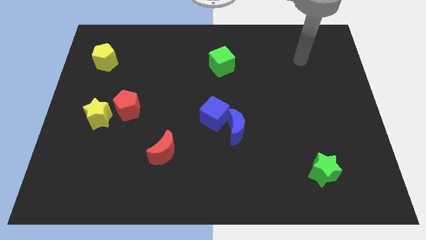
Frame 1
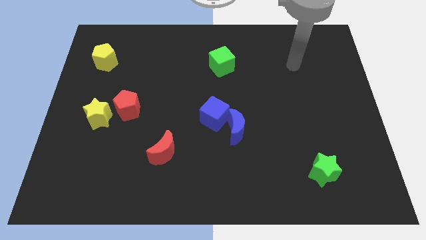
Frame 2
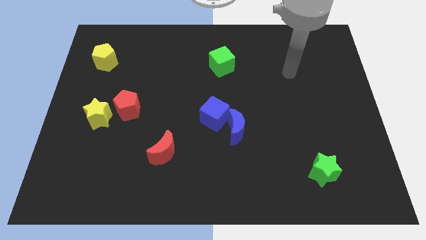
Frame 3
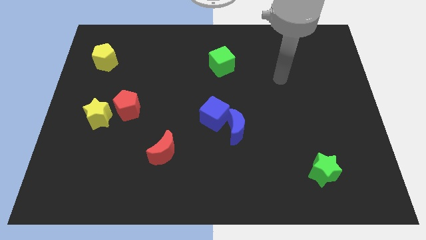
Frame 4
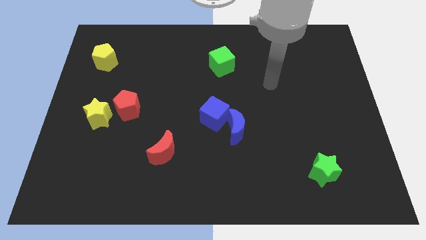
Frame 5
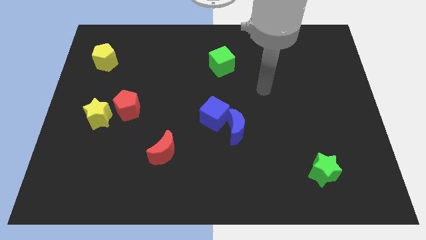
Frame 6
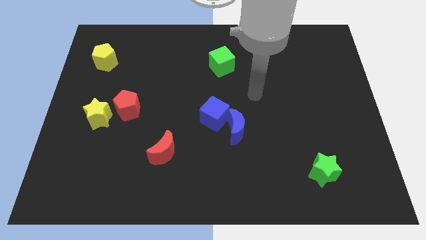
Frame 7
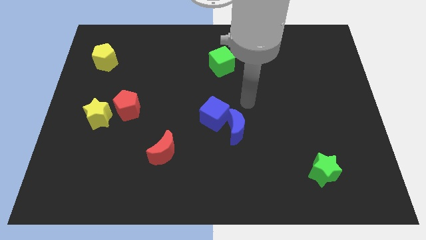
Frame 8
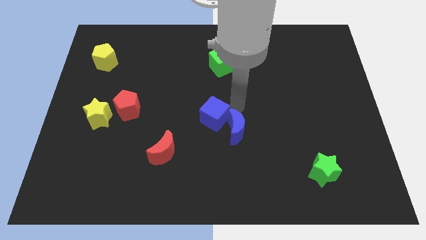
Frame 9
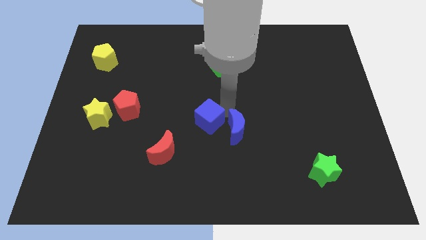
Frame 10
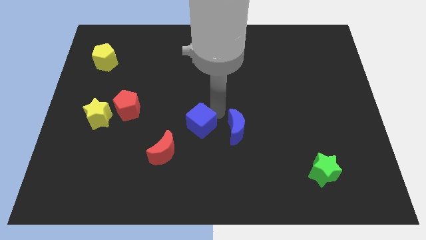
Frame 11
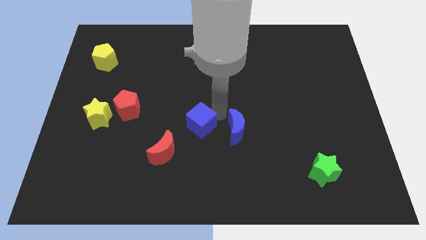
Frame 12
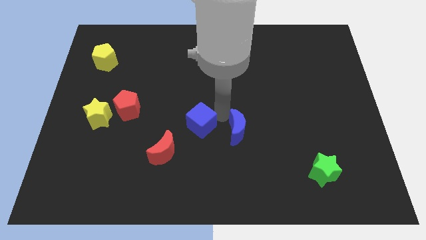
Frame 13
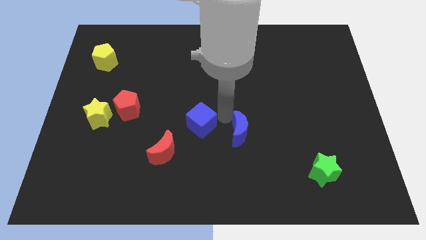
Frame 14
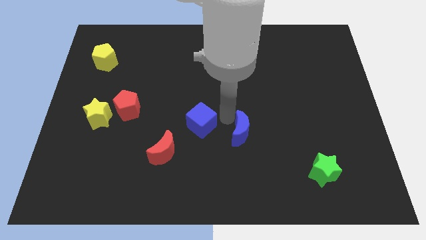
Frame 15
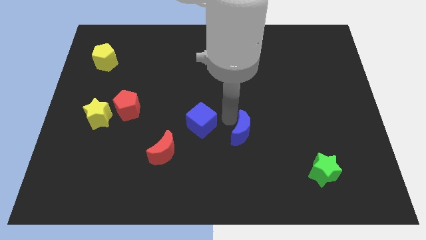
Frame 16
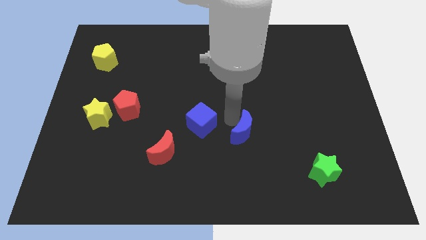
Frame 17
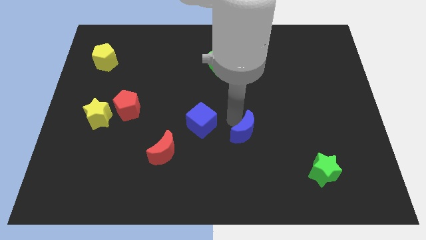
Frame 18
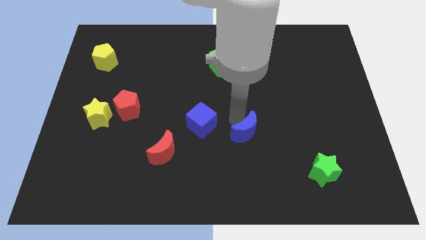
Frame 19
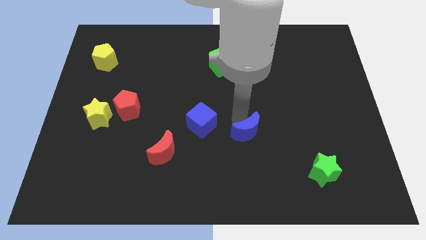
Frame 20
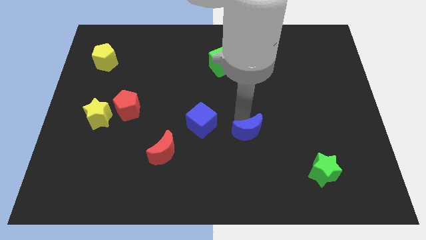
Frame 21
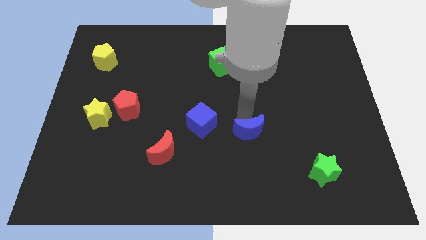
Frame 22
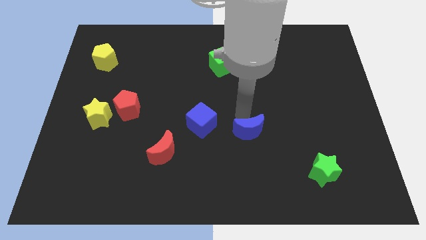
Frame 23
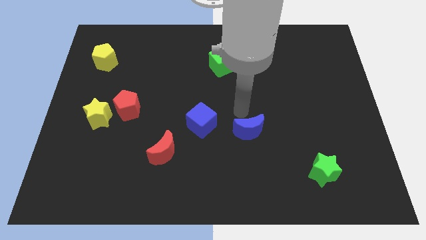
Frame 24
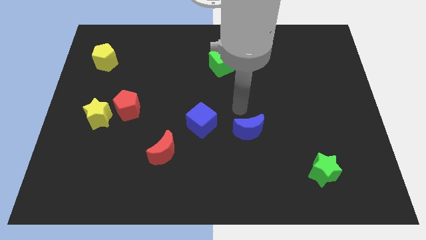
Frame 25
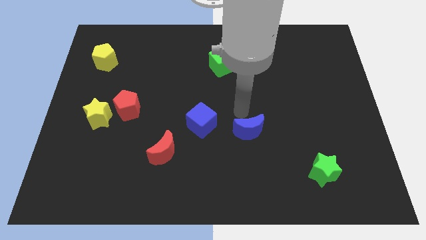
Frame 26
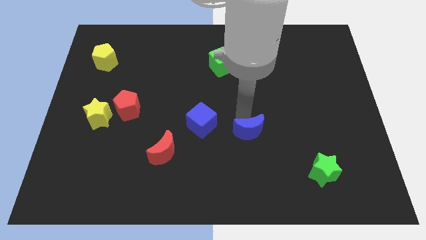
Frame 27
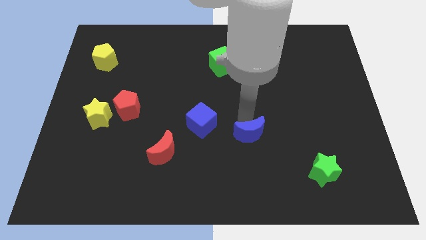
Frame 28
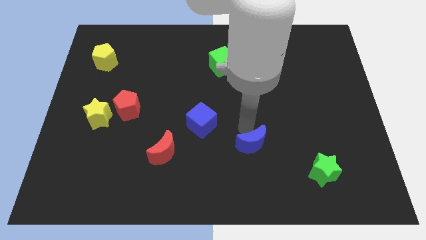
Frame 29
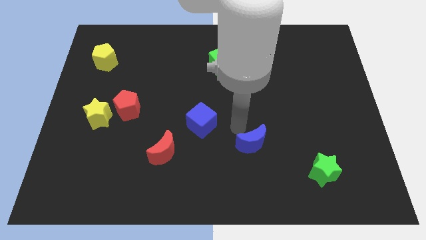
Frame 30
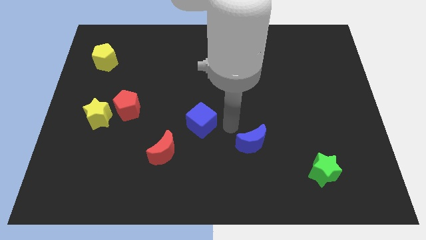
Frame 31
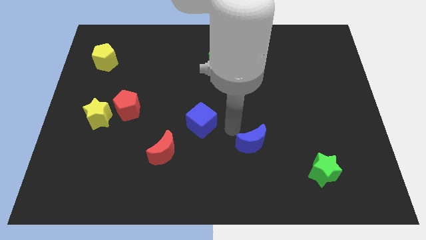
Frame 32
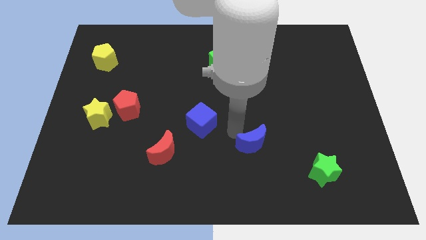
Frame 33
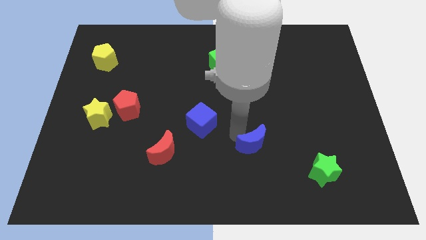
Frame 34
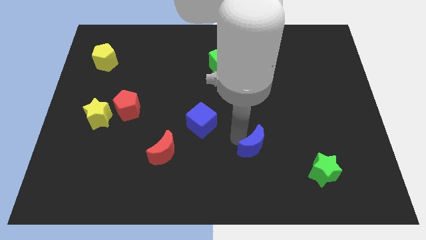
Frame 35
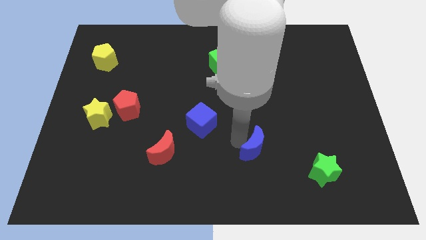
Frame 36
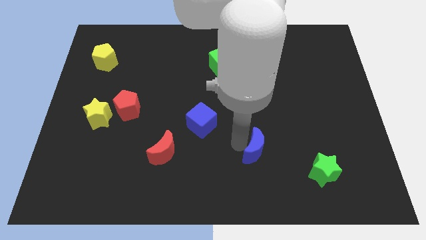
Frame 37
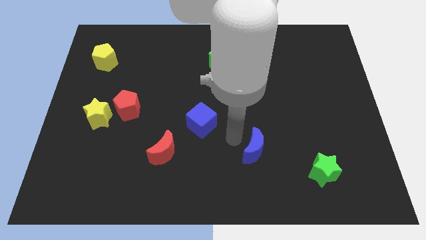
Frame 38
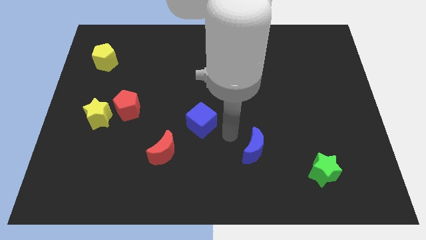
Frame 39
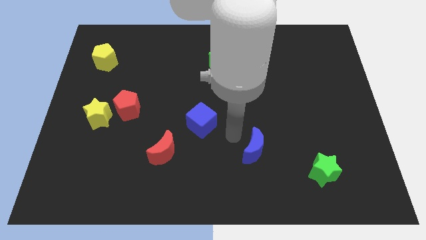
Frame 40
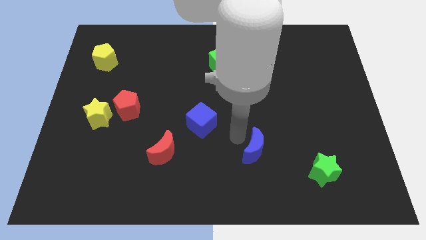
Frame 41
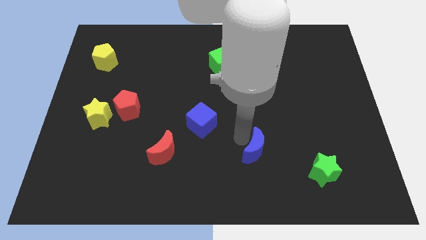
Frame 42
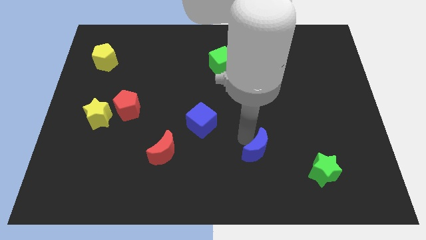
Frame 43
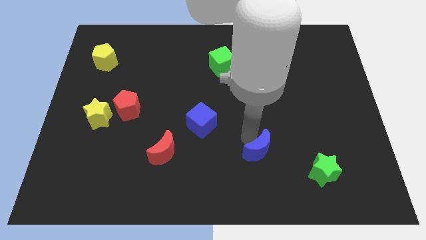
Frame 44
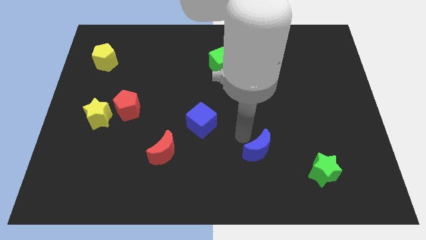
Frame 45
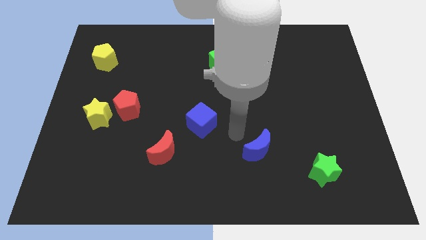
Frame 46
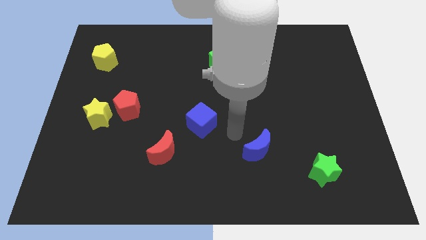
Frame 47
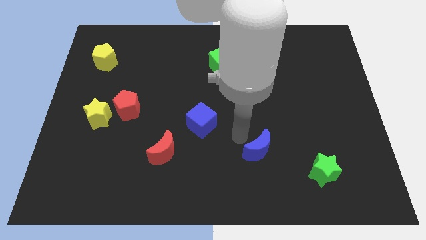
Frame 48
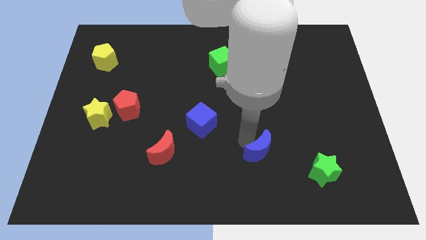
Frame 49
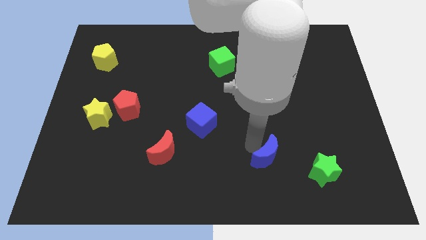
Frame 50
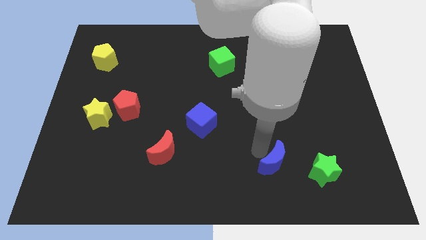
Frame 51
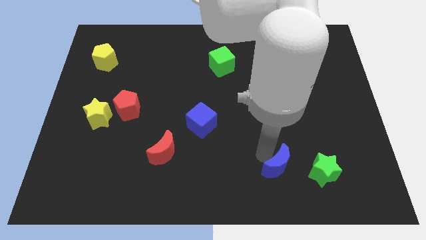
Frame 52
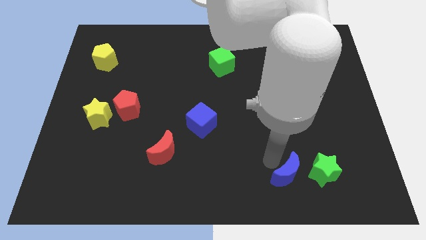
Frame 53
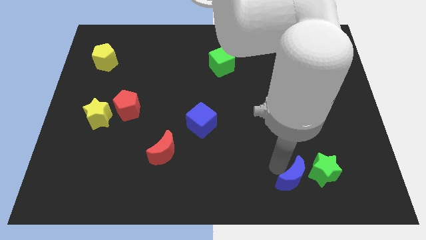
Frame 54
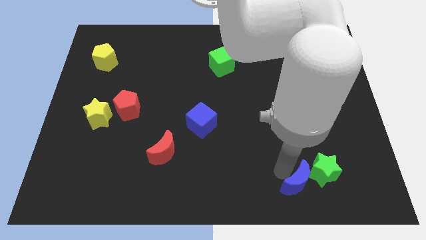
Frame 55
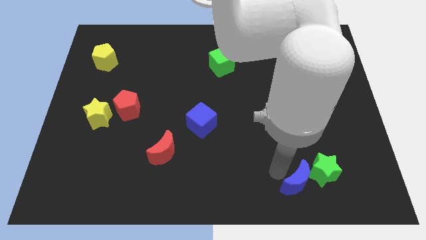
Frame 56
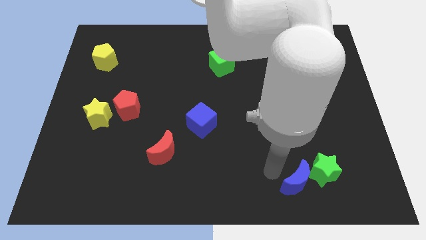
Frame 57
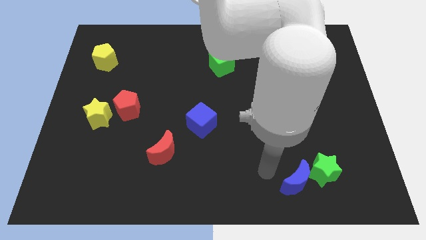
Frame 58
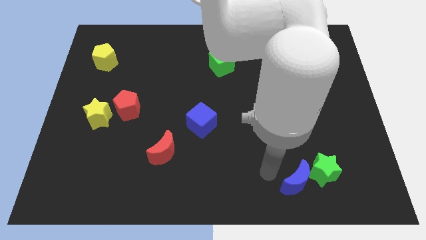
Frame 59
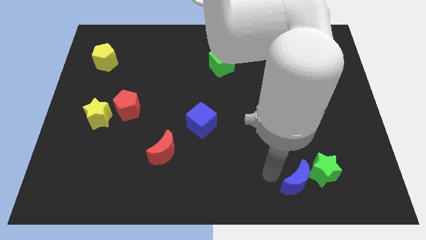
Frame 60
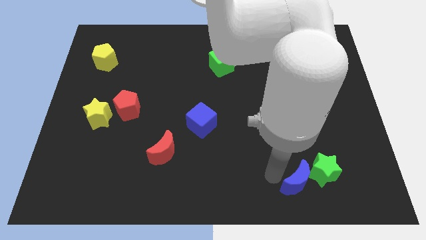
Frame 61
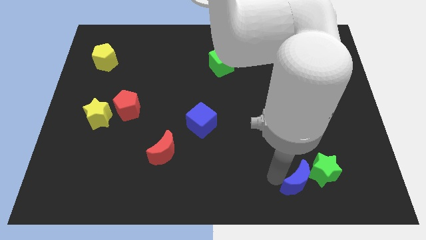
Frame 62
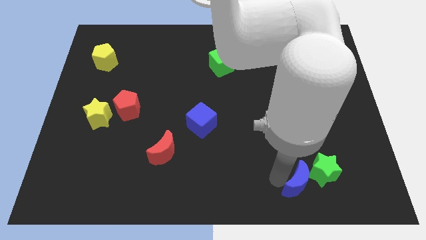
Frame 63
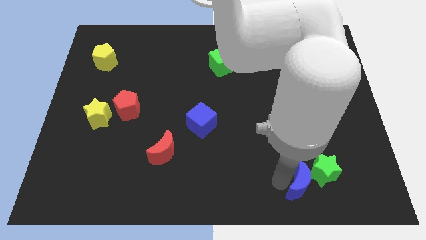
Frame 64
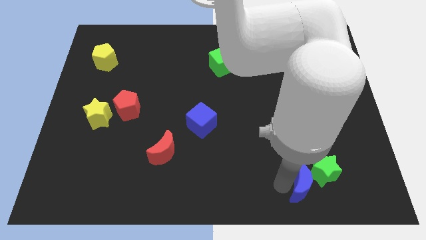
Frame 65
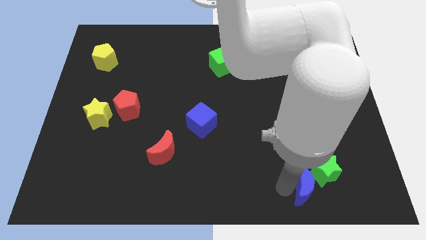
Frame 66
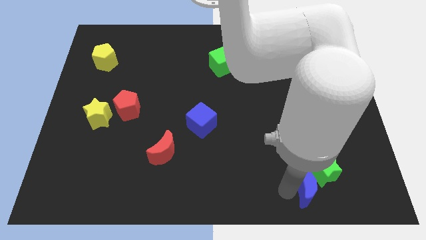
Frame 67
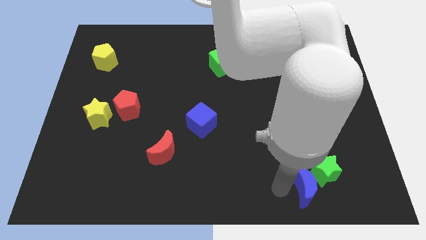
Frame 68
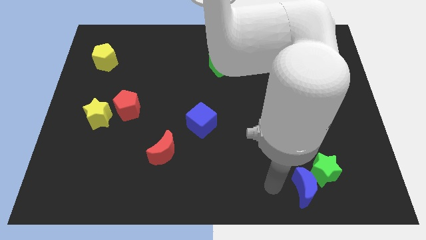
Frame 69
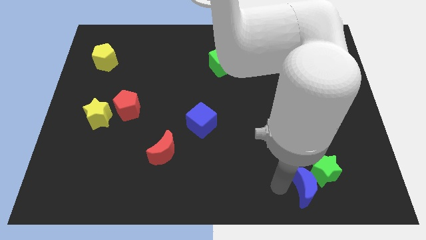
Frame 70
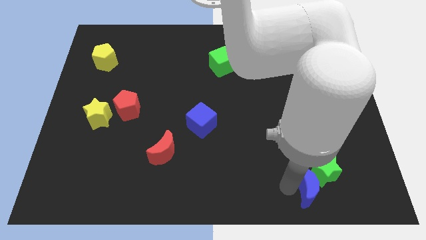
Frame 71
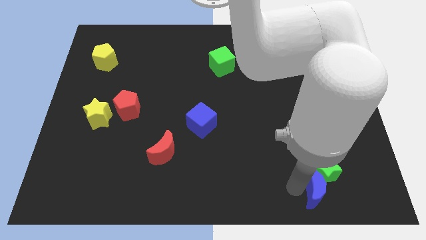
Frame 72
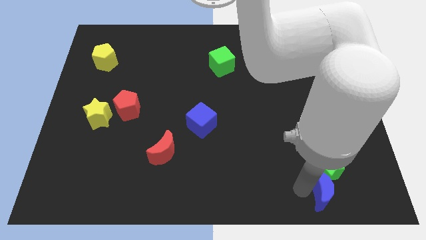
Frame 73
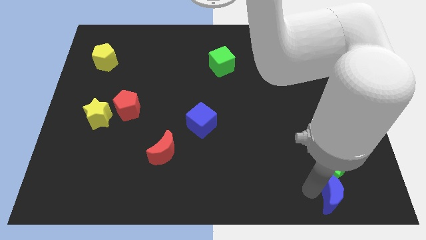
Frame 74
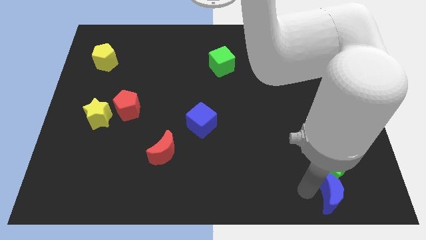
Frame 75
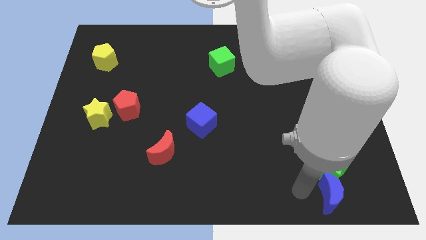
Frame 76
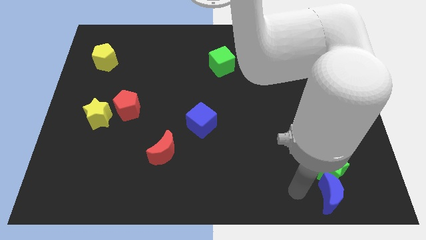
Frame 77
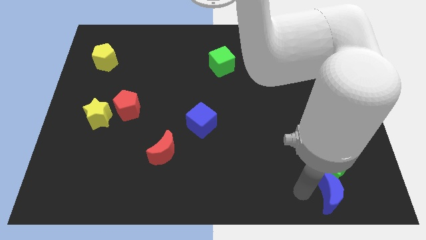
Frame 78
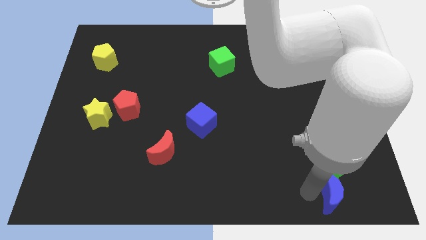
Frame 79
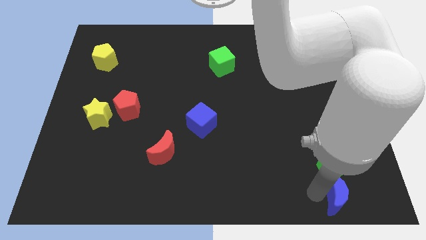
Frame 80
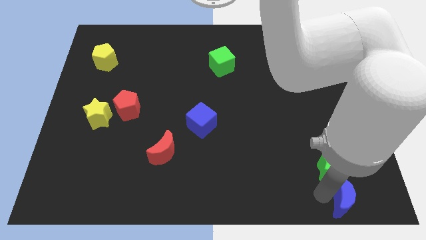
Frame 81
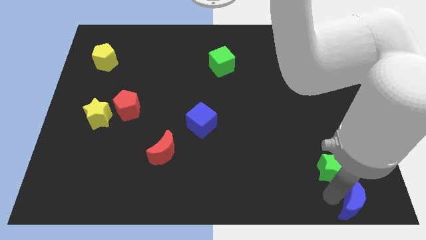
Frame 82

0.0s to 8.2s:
slide the blue moon to the bottom right of the board
